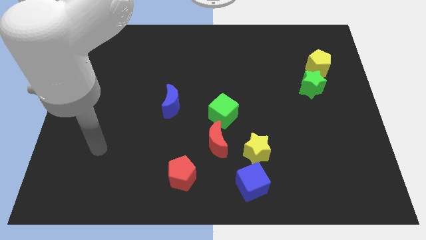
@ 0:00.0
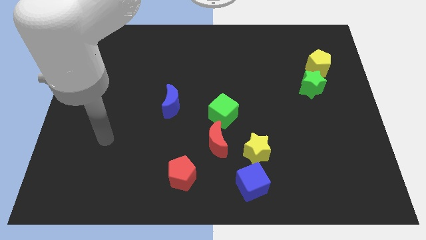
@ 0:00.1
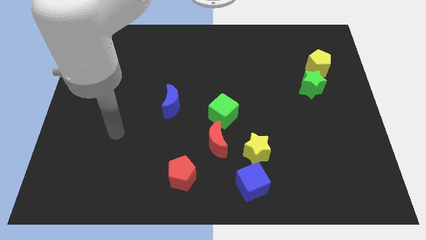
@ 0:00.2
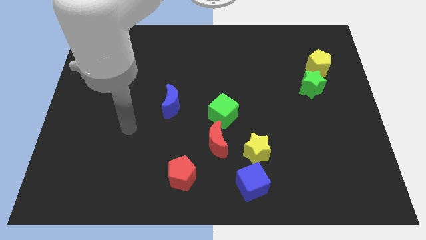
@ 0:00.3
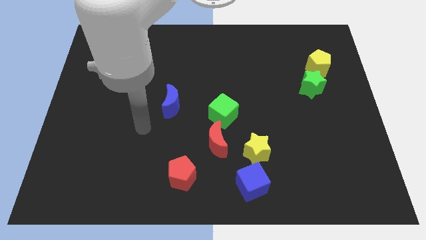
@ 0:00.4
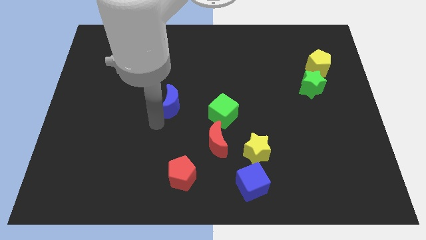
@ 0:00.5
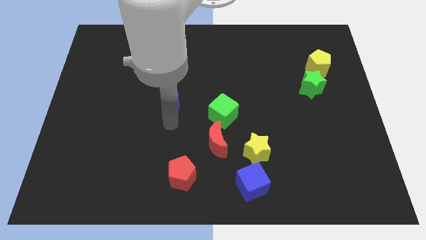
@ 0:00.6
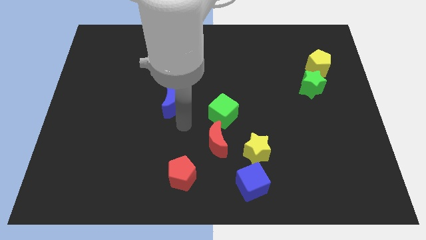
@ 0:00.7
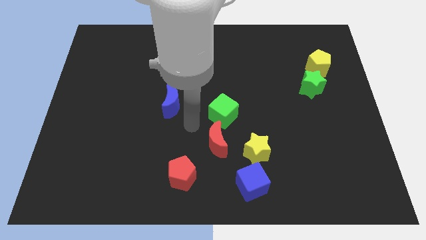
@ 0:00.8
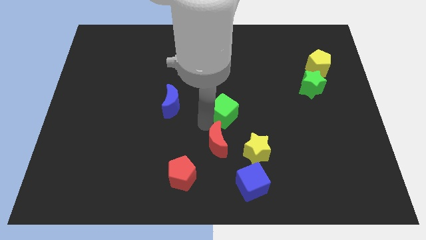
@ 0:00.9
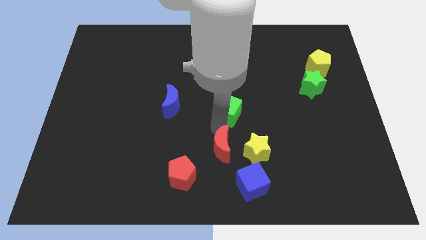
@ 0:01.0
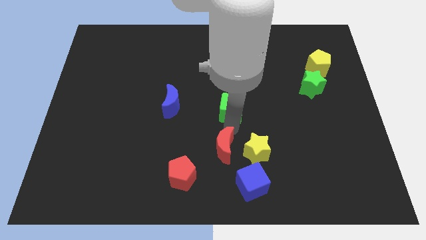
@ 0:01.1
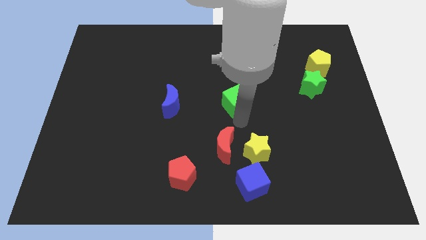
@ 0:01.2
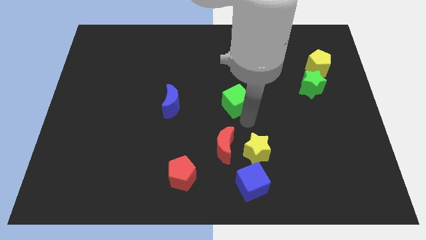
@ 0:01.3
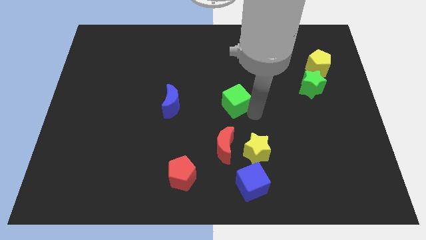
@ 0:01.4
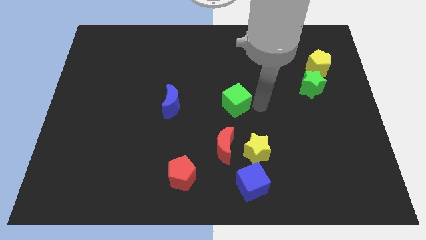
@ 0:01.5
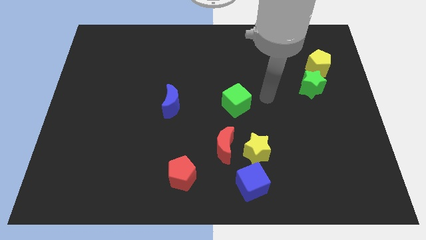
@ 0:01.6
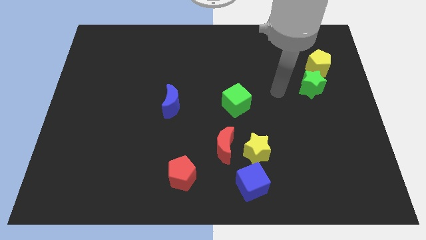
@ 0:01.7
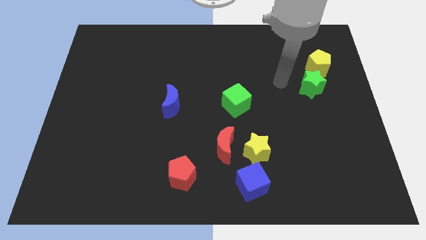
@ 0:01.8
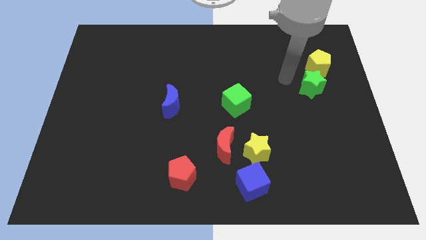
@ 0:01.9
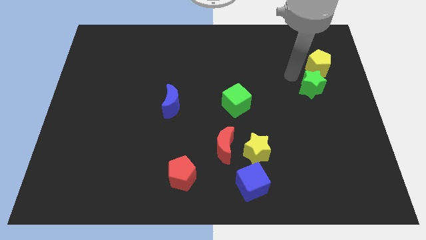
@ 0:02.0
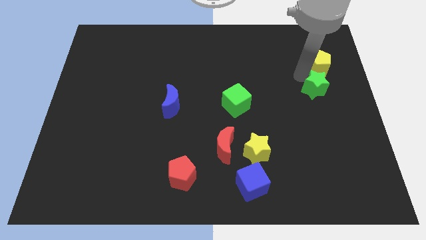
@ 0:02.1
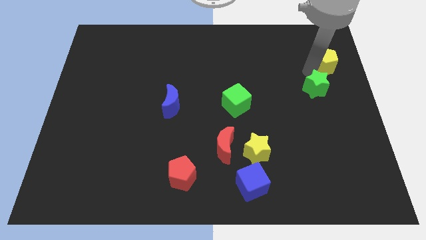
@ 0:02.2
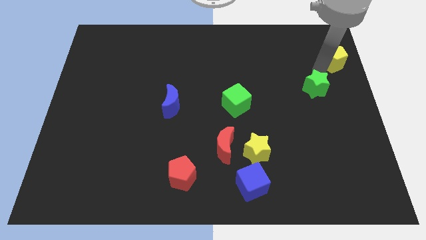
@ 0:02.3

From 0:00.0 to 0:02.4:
pull the green star apart from the yellow pentagon

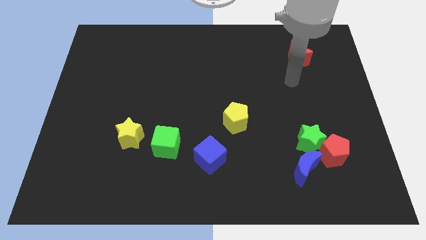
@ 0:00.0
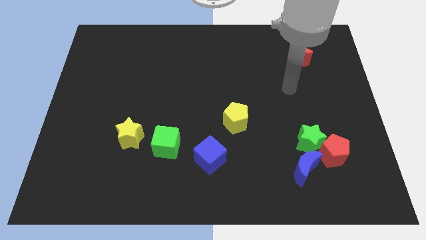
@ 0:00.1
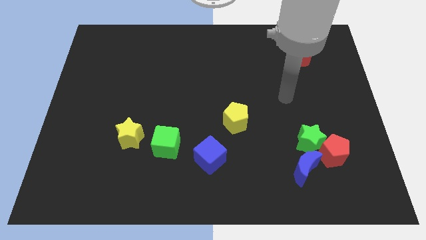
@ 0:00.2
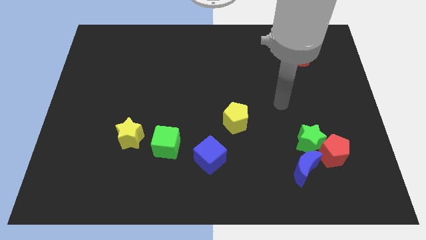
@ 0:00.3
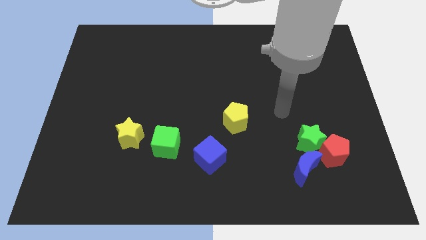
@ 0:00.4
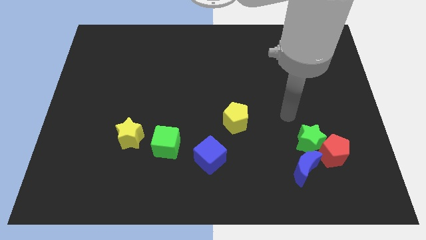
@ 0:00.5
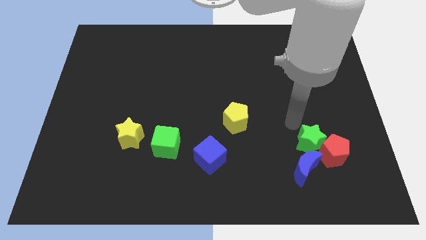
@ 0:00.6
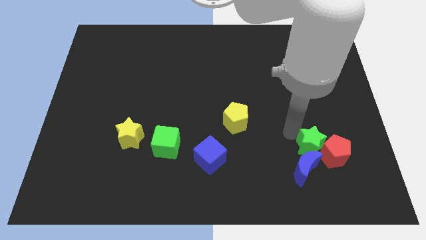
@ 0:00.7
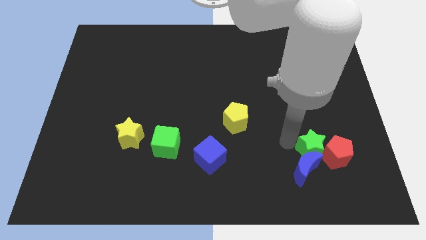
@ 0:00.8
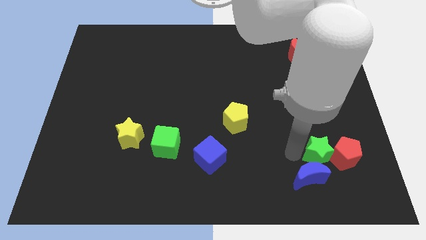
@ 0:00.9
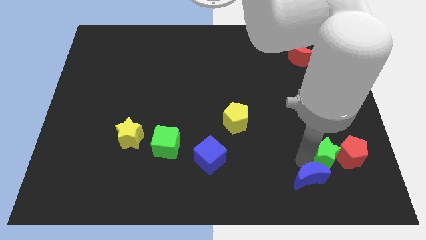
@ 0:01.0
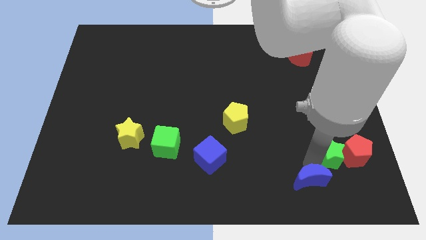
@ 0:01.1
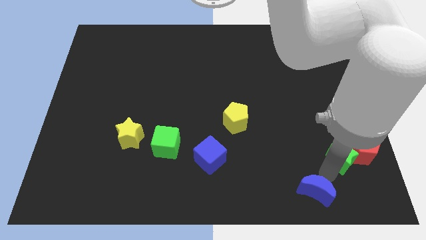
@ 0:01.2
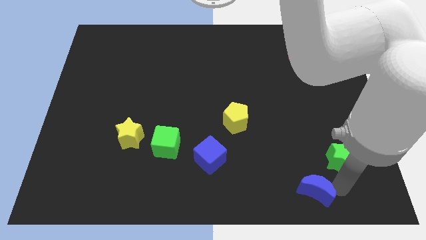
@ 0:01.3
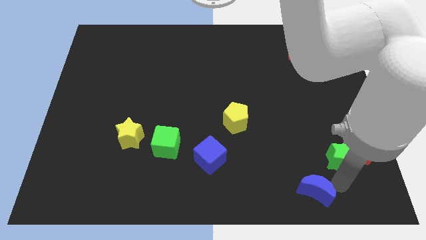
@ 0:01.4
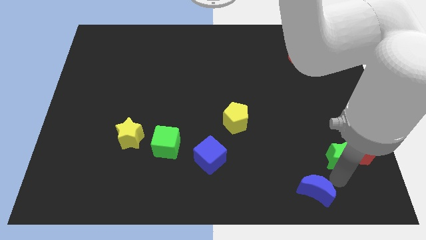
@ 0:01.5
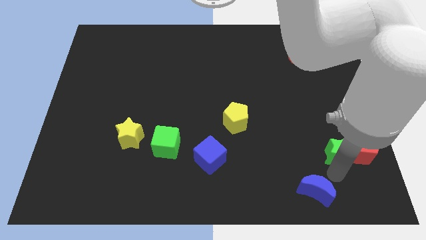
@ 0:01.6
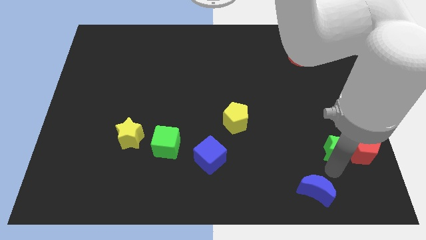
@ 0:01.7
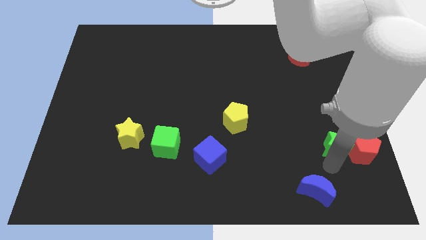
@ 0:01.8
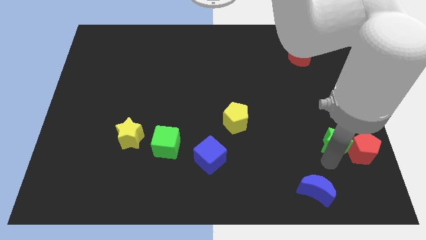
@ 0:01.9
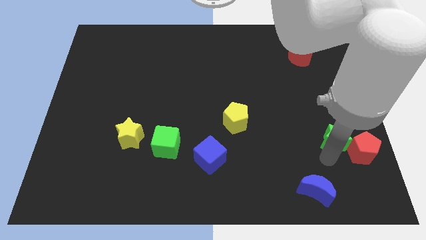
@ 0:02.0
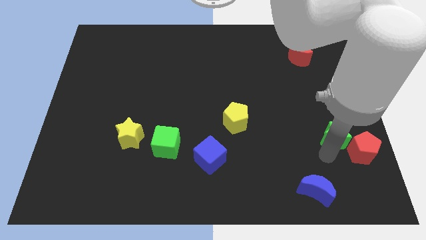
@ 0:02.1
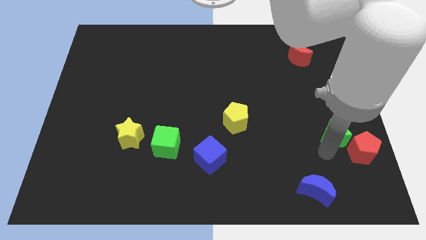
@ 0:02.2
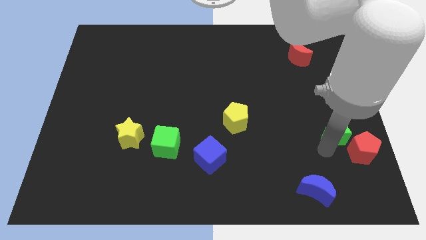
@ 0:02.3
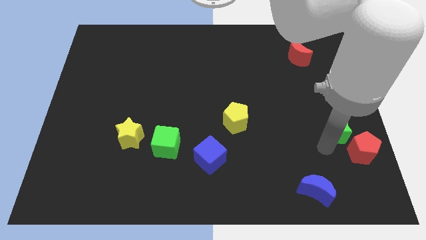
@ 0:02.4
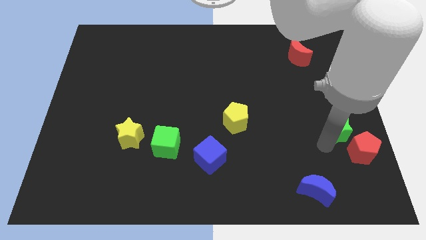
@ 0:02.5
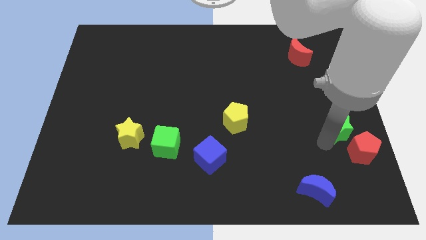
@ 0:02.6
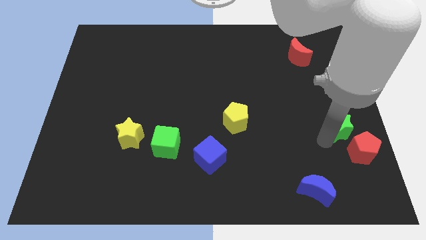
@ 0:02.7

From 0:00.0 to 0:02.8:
pull the green star apart from the red pentagon and blue moon

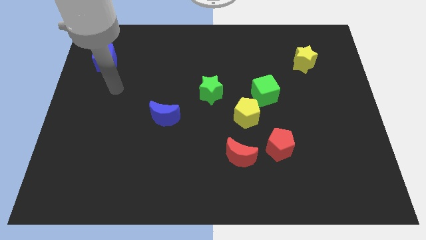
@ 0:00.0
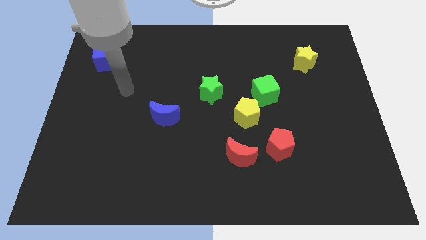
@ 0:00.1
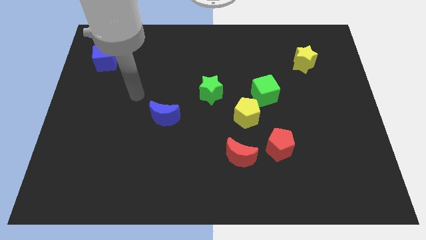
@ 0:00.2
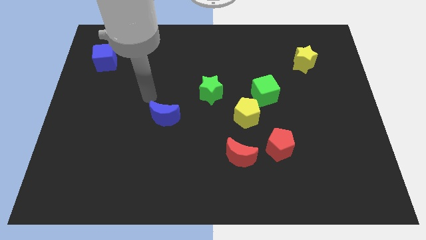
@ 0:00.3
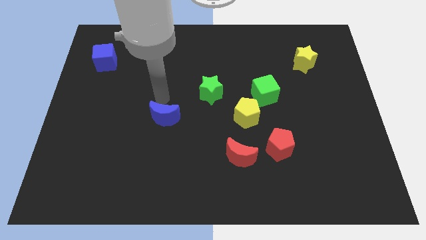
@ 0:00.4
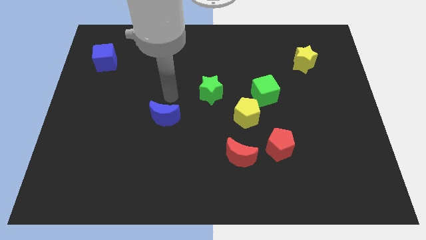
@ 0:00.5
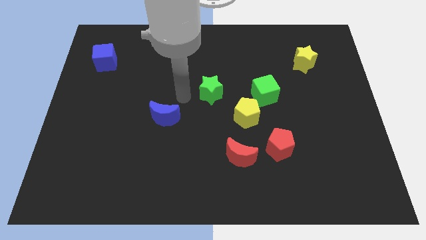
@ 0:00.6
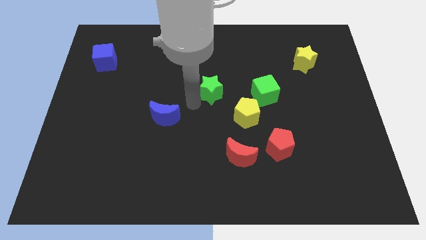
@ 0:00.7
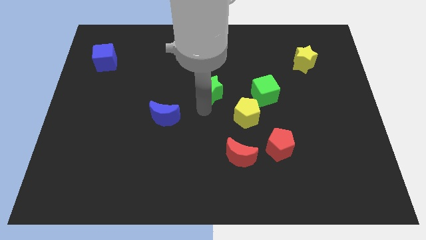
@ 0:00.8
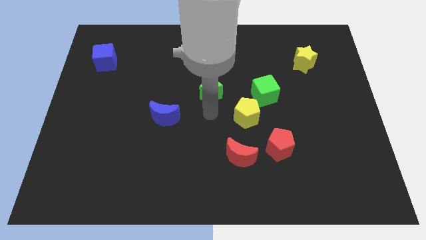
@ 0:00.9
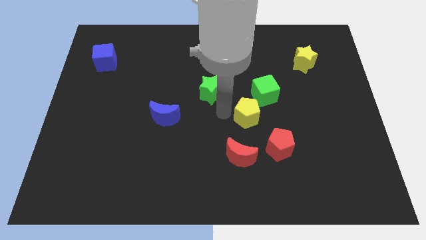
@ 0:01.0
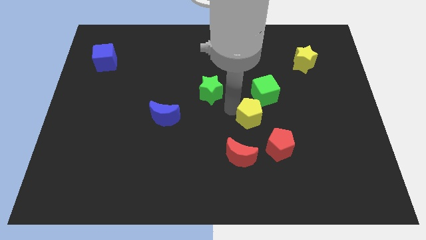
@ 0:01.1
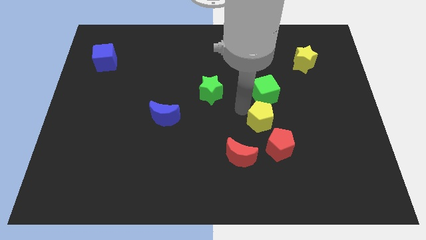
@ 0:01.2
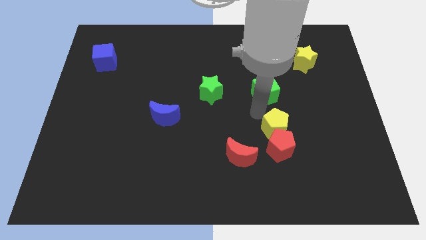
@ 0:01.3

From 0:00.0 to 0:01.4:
pull the green cube apart from the yellow pentagon

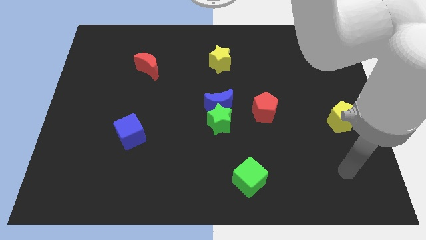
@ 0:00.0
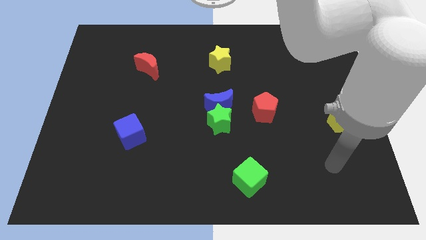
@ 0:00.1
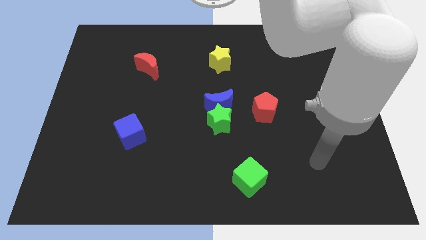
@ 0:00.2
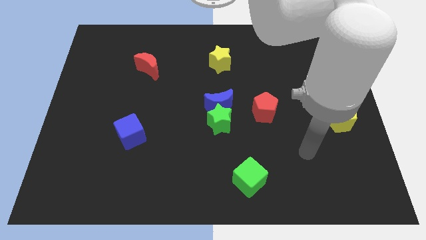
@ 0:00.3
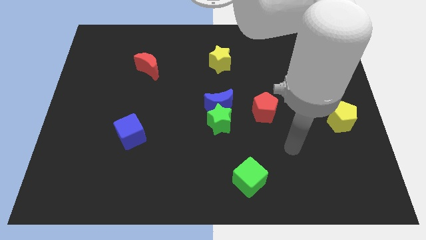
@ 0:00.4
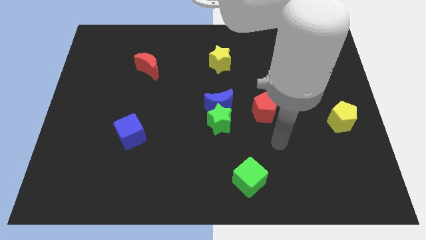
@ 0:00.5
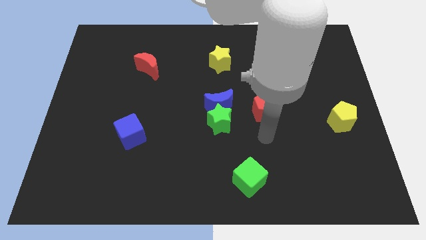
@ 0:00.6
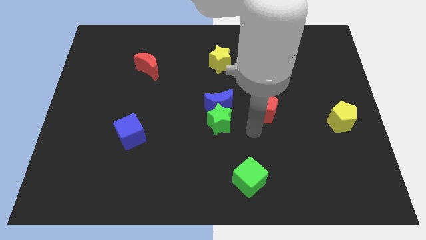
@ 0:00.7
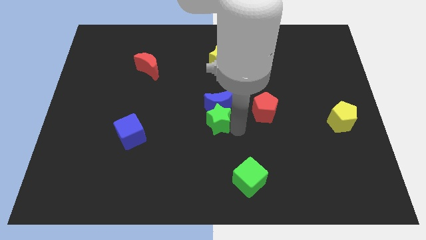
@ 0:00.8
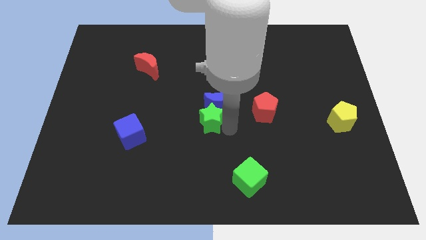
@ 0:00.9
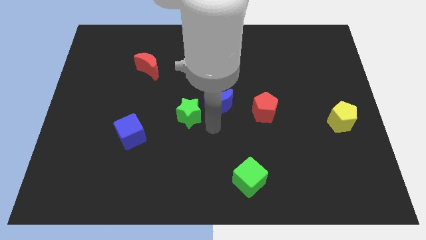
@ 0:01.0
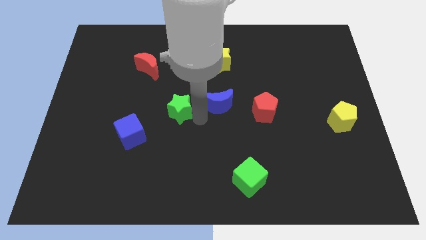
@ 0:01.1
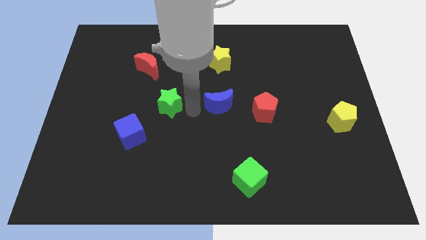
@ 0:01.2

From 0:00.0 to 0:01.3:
separate the blue moon from the green star

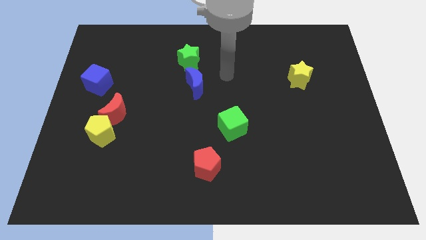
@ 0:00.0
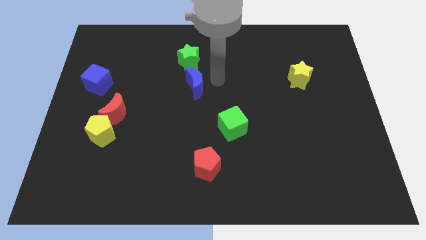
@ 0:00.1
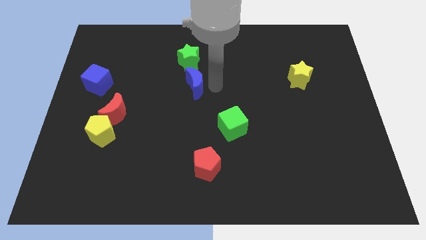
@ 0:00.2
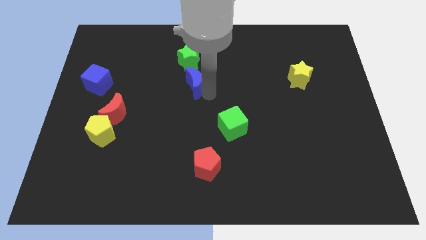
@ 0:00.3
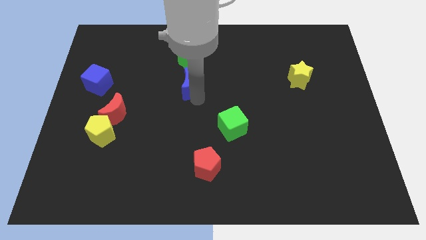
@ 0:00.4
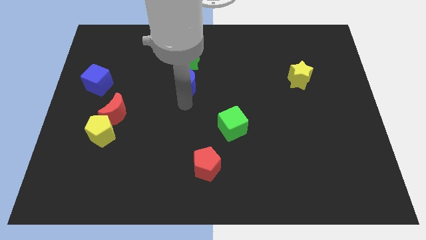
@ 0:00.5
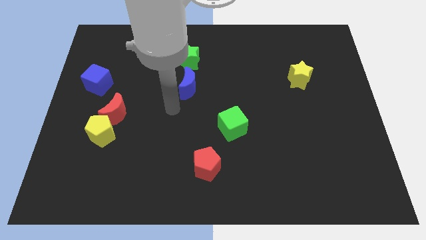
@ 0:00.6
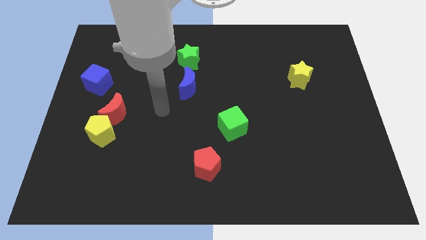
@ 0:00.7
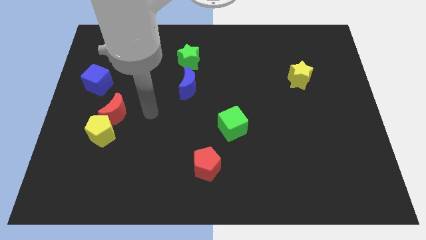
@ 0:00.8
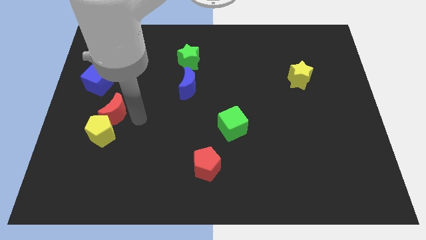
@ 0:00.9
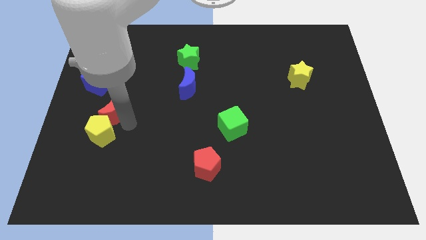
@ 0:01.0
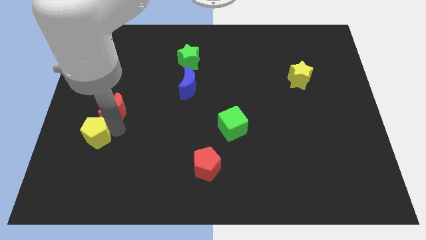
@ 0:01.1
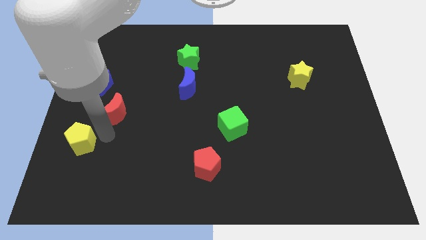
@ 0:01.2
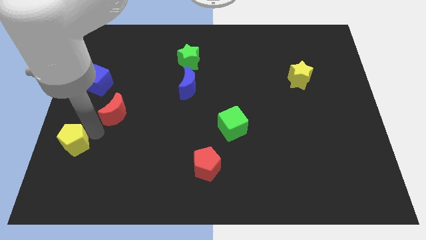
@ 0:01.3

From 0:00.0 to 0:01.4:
separate the red moon from the yellow pentagon
